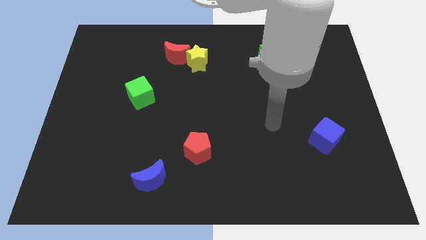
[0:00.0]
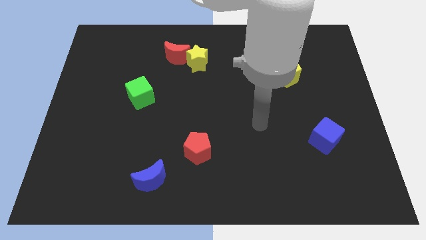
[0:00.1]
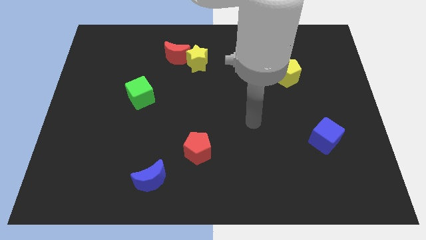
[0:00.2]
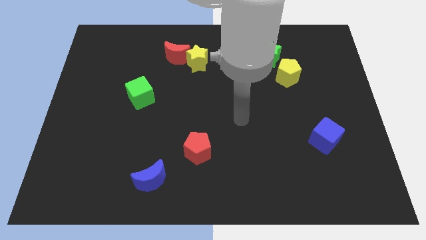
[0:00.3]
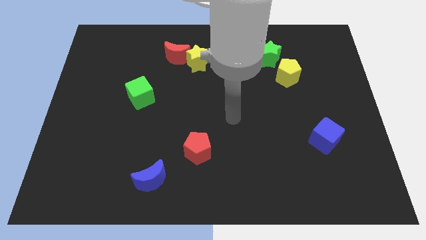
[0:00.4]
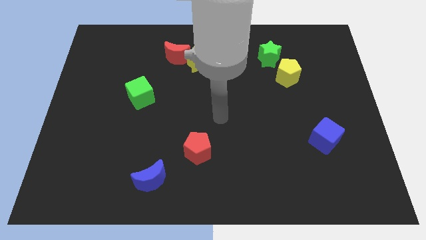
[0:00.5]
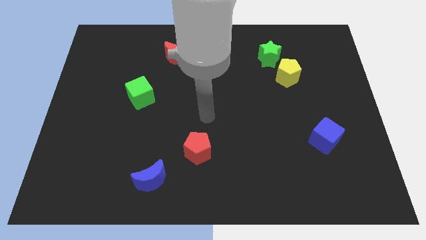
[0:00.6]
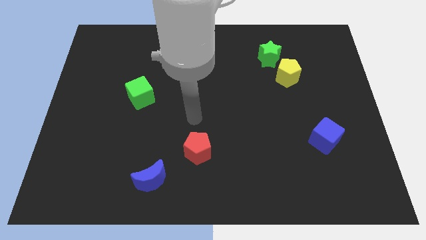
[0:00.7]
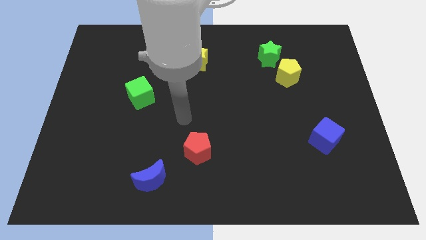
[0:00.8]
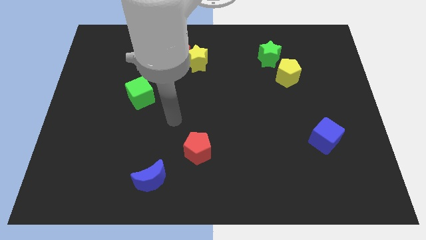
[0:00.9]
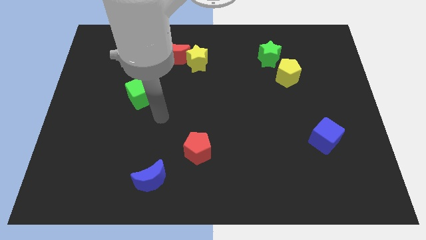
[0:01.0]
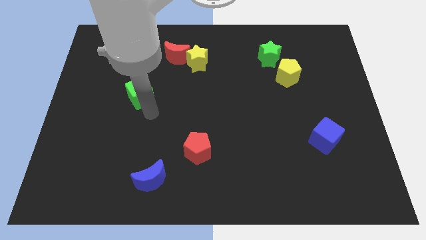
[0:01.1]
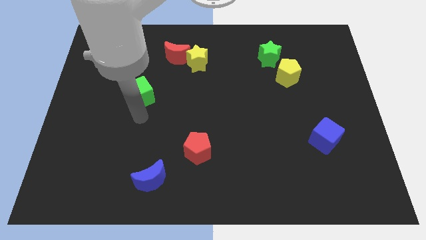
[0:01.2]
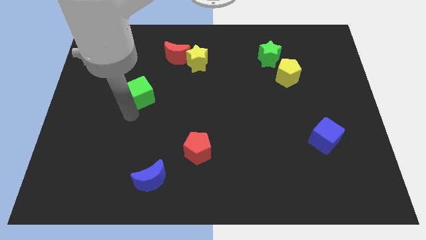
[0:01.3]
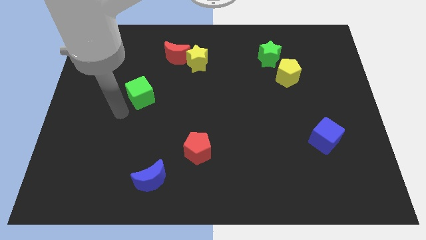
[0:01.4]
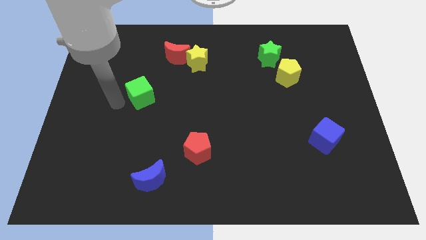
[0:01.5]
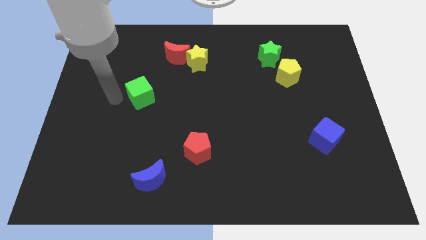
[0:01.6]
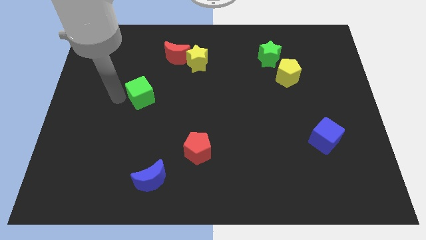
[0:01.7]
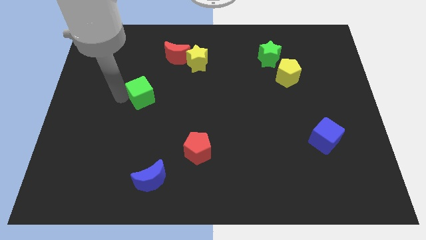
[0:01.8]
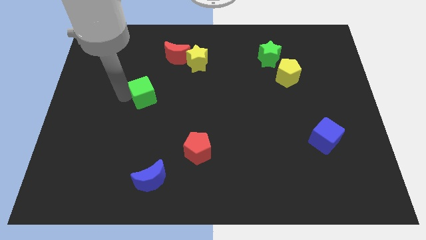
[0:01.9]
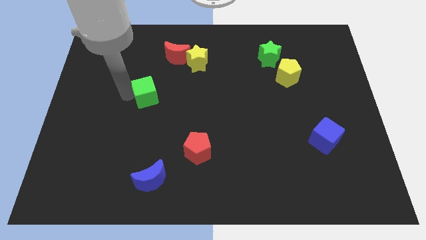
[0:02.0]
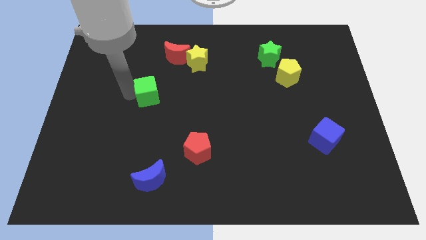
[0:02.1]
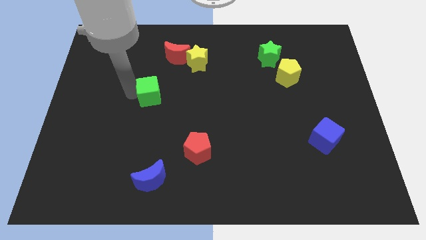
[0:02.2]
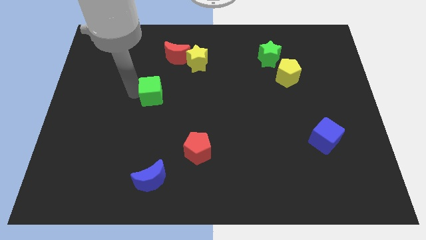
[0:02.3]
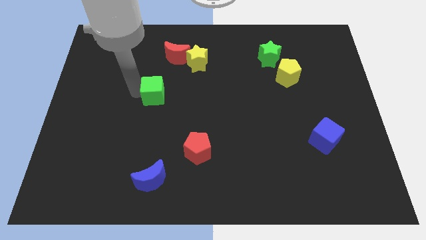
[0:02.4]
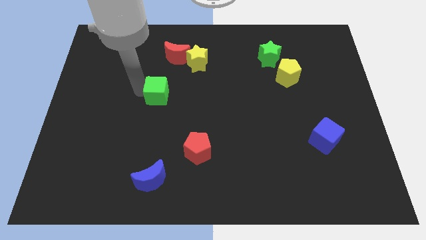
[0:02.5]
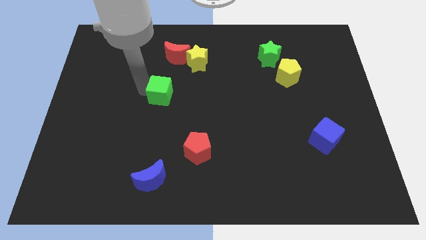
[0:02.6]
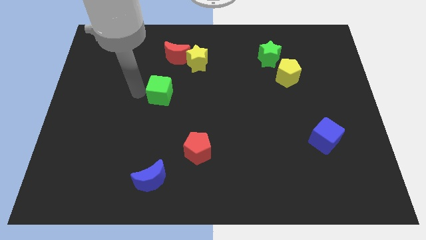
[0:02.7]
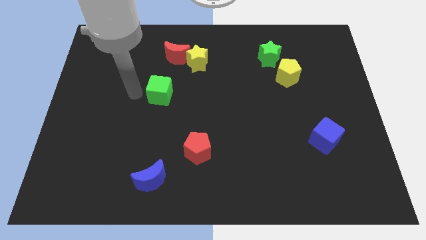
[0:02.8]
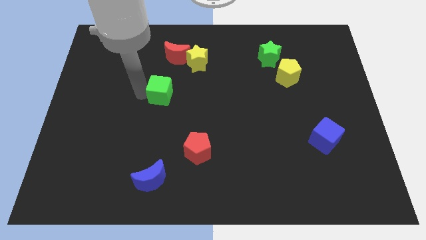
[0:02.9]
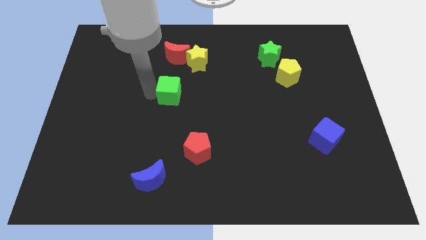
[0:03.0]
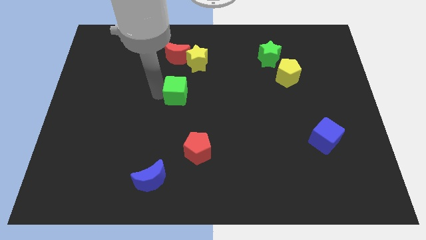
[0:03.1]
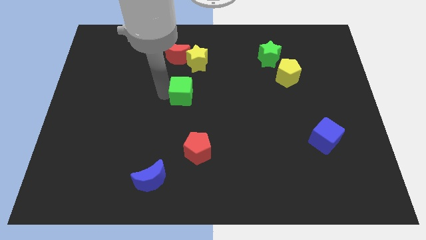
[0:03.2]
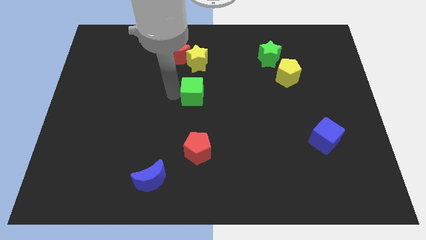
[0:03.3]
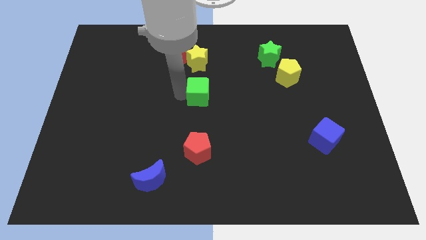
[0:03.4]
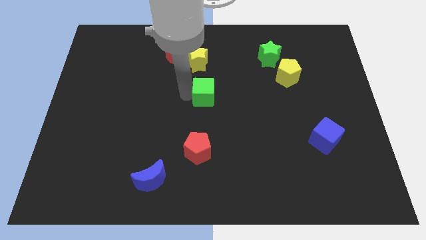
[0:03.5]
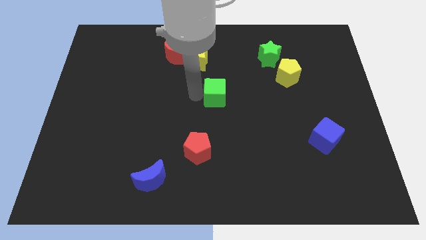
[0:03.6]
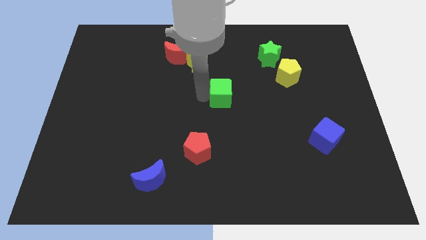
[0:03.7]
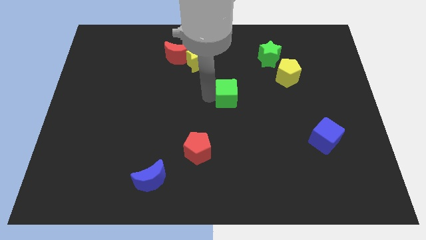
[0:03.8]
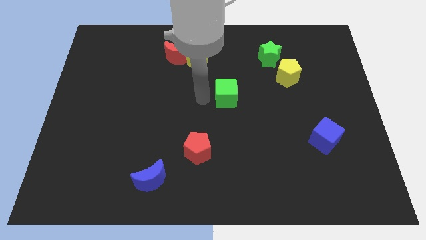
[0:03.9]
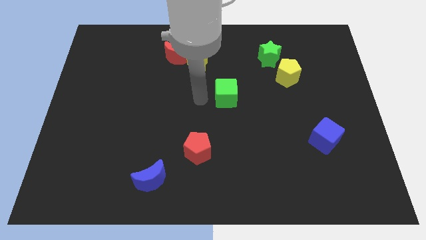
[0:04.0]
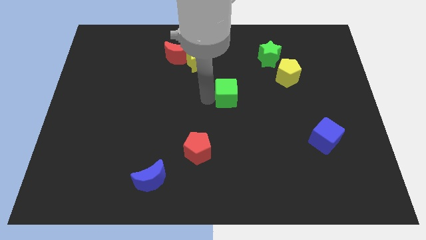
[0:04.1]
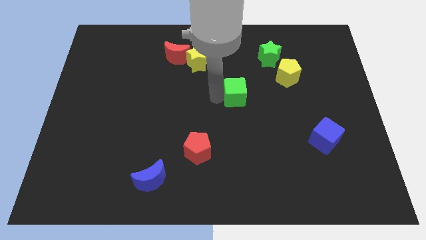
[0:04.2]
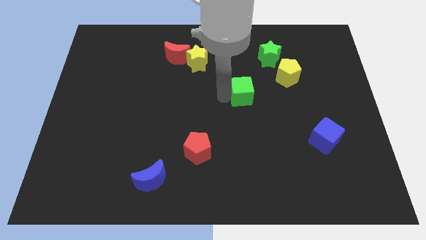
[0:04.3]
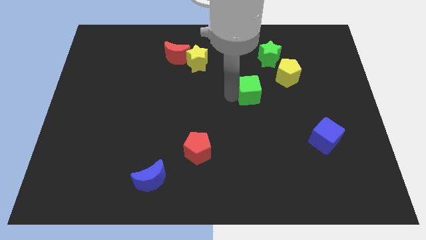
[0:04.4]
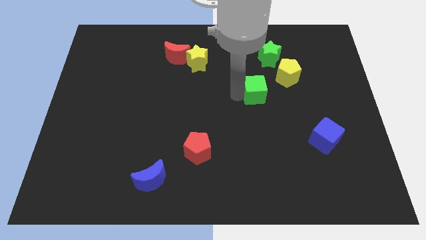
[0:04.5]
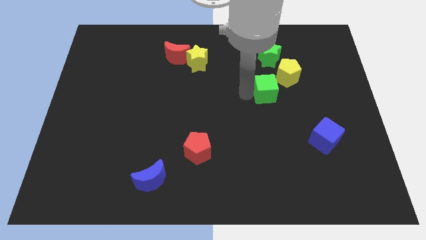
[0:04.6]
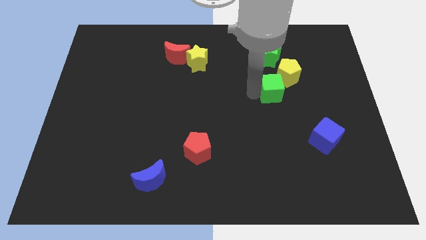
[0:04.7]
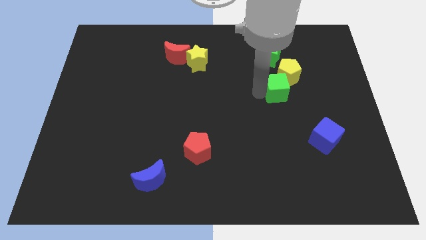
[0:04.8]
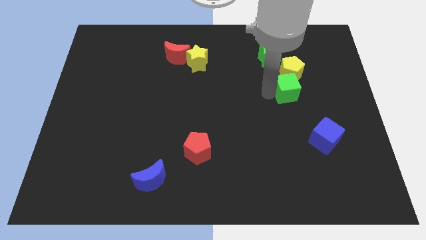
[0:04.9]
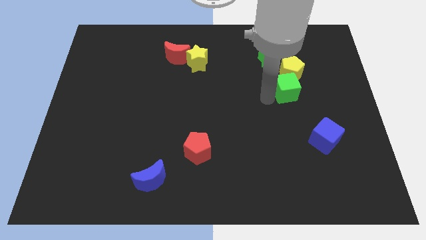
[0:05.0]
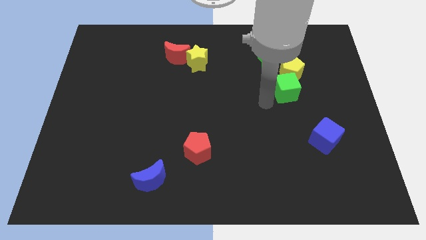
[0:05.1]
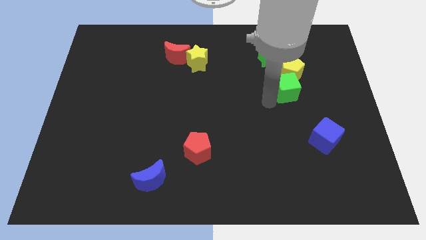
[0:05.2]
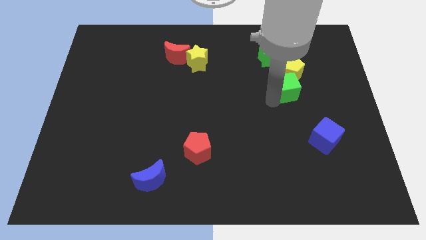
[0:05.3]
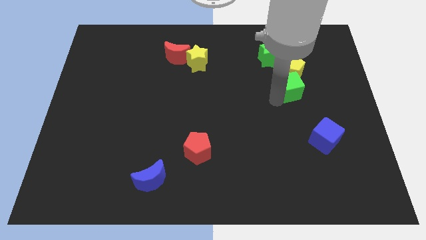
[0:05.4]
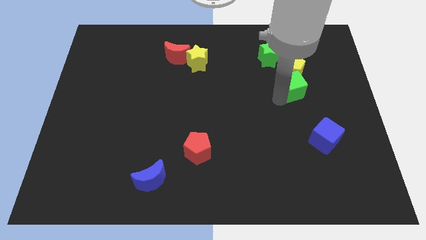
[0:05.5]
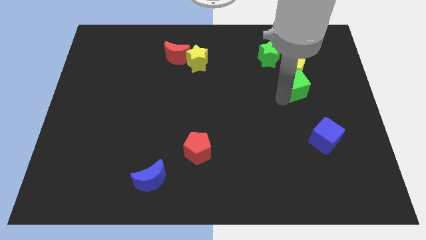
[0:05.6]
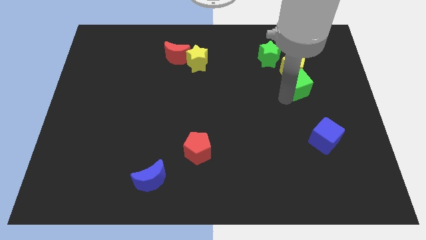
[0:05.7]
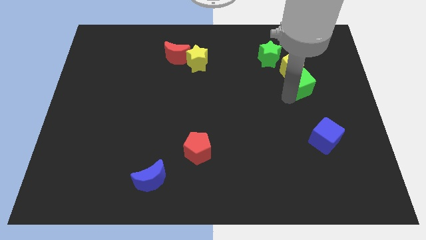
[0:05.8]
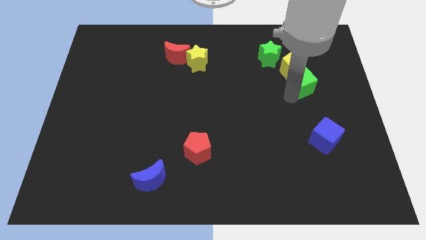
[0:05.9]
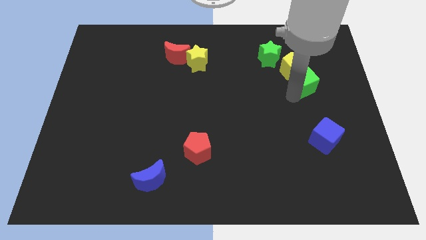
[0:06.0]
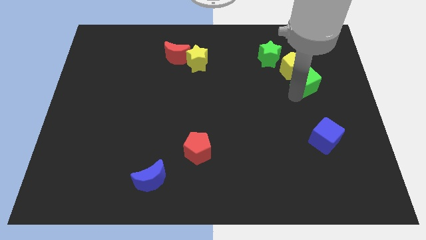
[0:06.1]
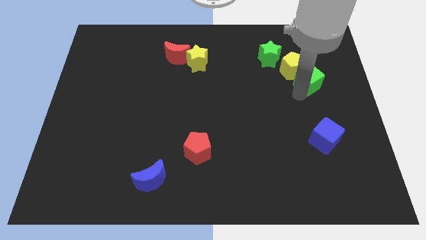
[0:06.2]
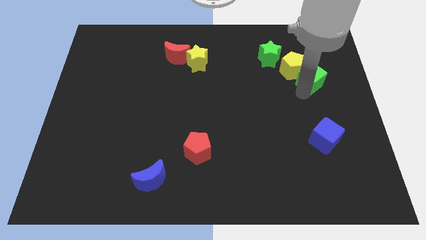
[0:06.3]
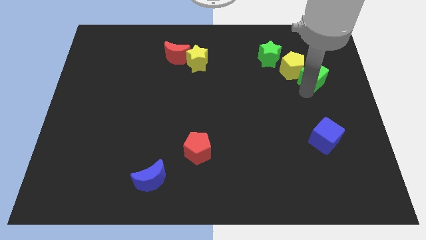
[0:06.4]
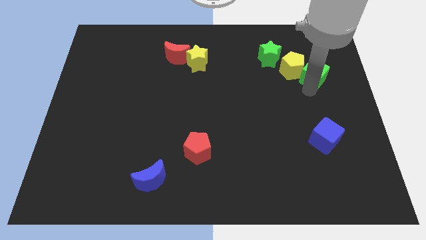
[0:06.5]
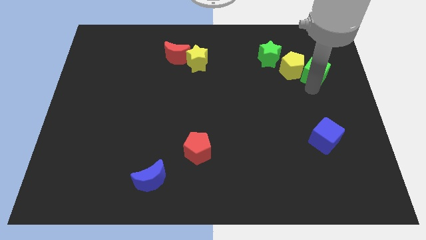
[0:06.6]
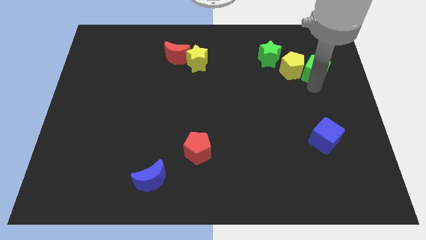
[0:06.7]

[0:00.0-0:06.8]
move the green cube to the top right side of the yellow pentagon
